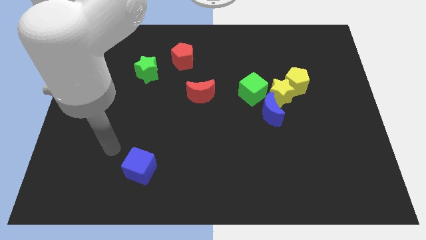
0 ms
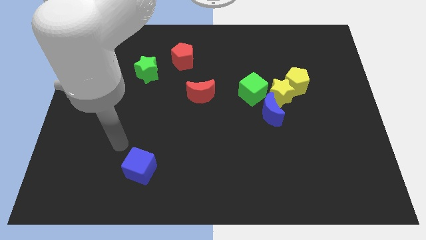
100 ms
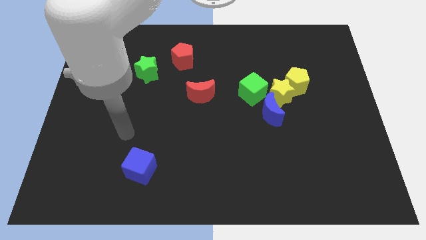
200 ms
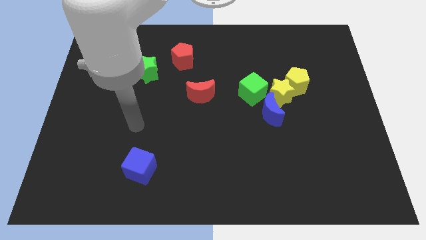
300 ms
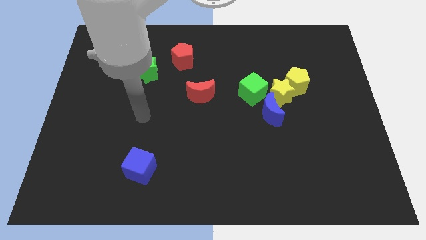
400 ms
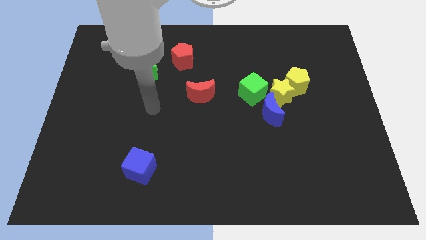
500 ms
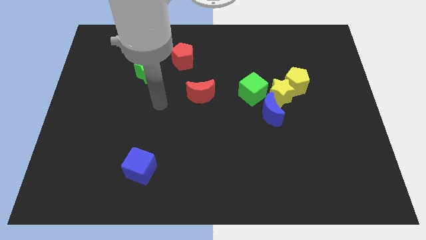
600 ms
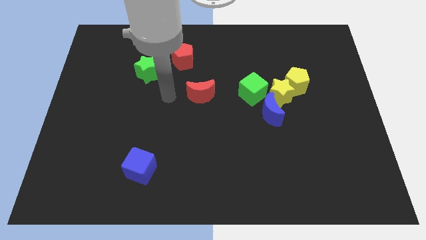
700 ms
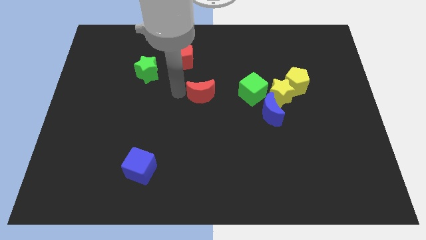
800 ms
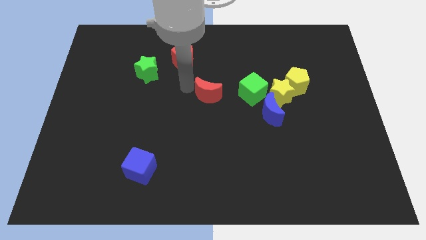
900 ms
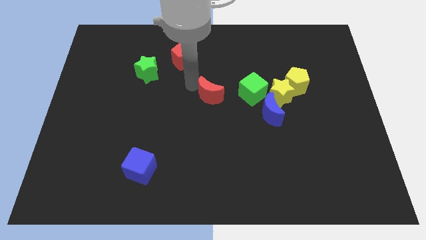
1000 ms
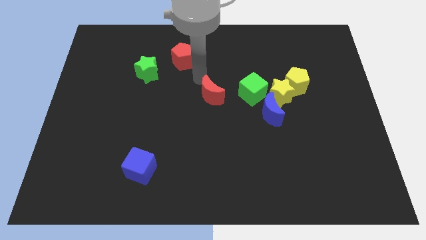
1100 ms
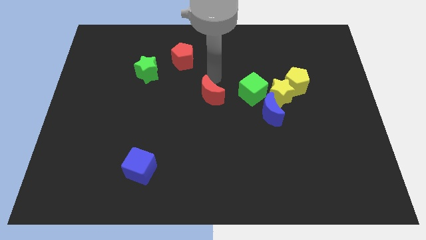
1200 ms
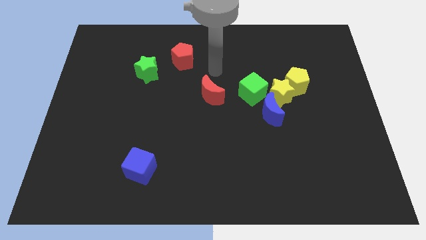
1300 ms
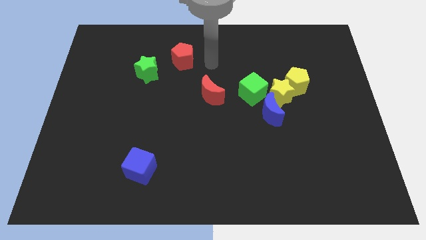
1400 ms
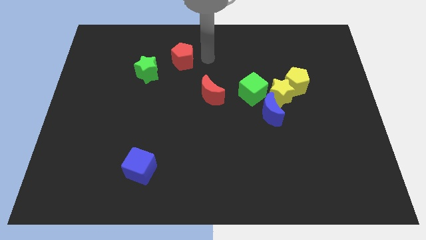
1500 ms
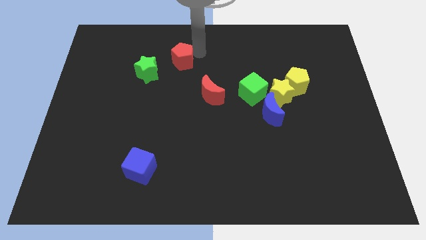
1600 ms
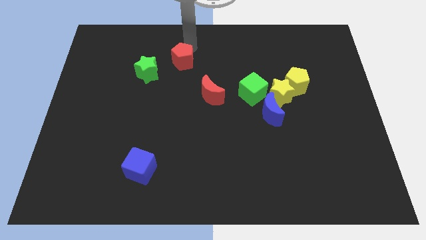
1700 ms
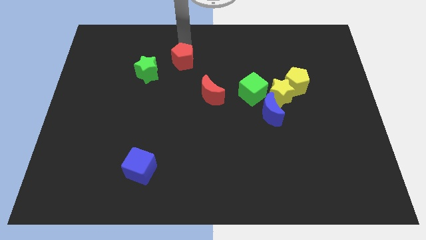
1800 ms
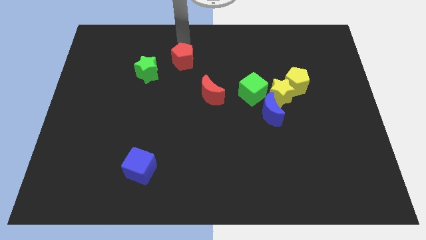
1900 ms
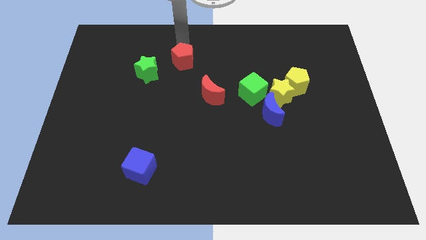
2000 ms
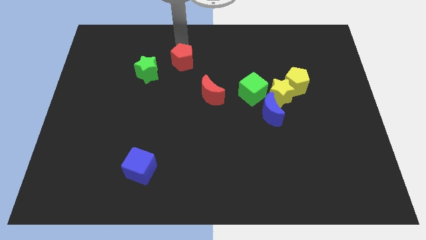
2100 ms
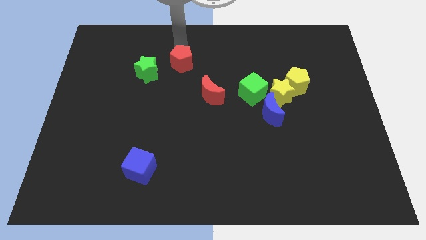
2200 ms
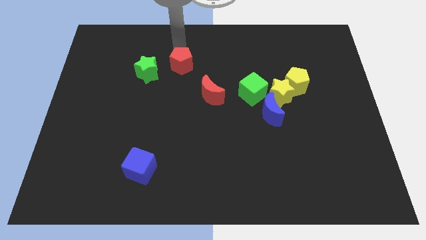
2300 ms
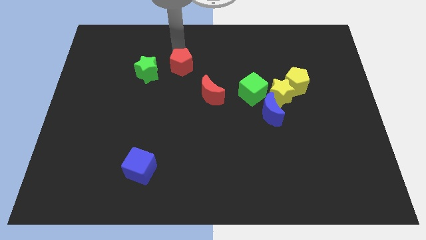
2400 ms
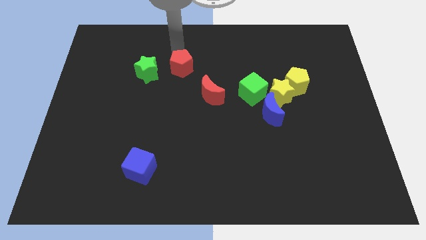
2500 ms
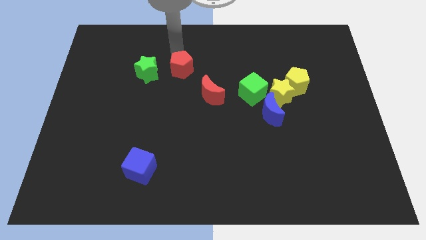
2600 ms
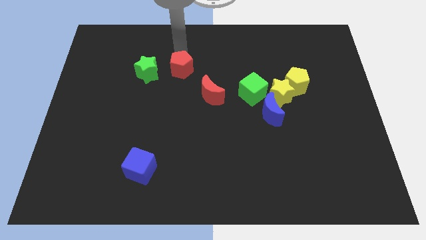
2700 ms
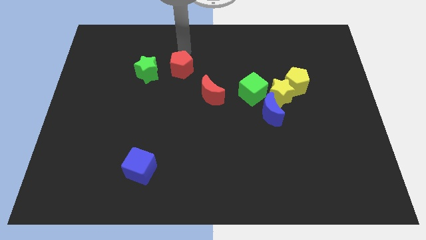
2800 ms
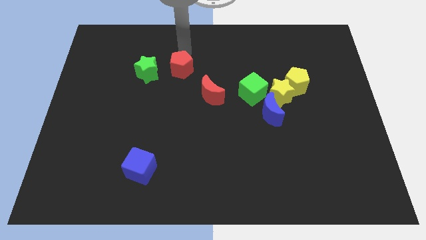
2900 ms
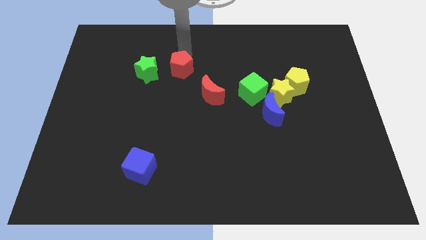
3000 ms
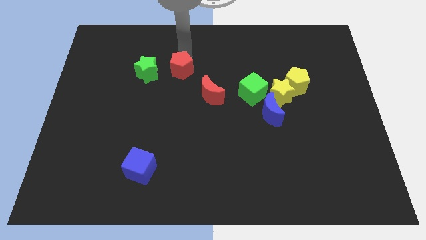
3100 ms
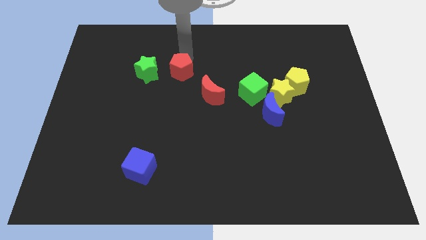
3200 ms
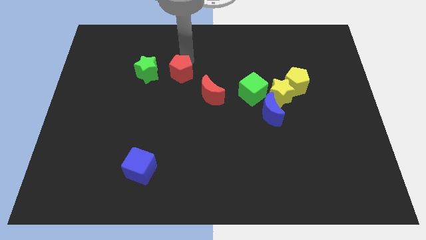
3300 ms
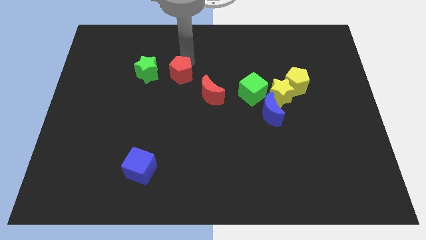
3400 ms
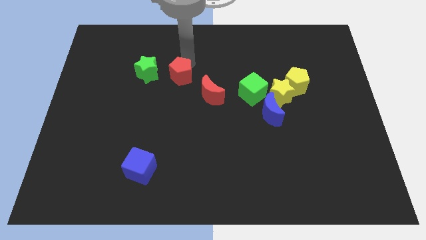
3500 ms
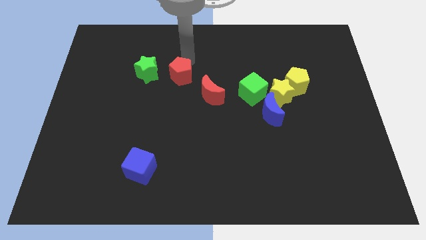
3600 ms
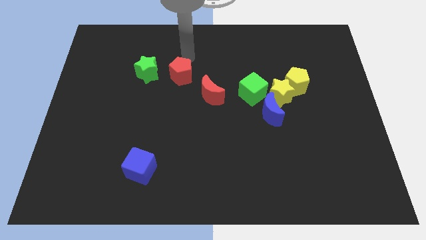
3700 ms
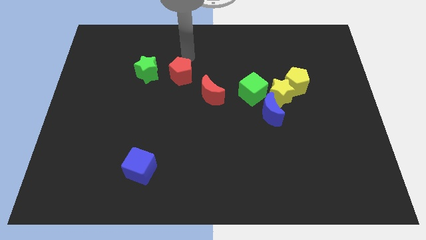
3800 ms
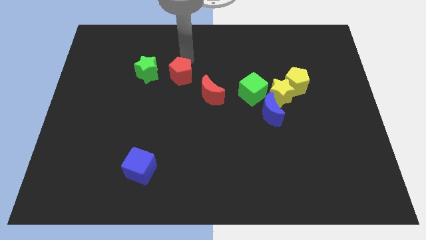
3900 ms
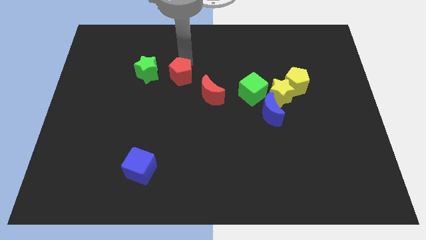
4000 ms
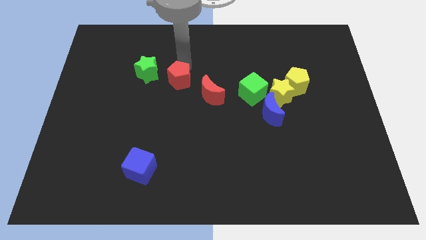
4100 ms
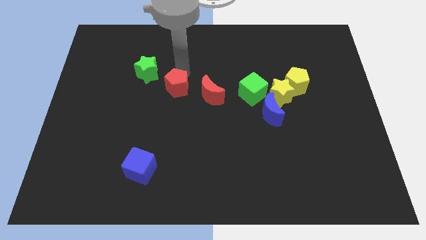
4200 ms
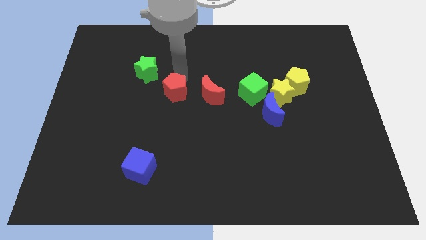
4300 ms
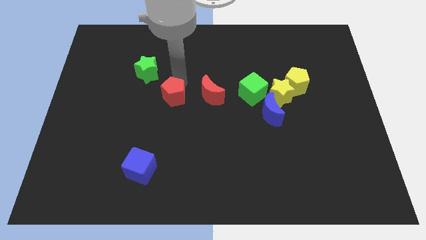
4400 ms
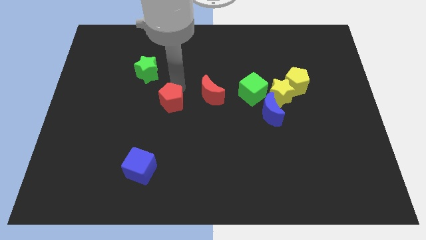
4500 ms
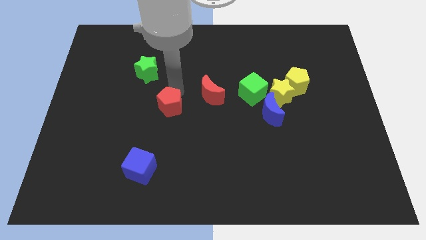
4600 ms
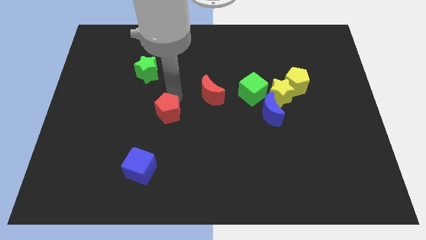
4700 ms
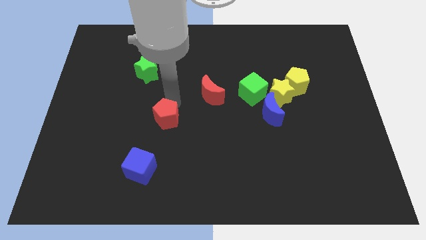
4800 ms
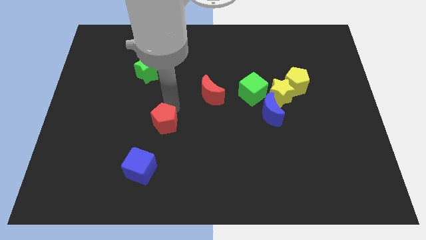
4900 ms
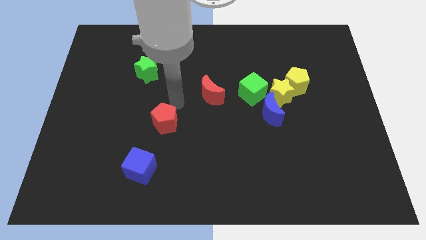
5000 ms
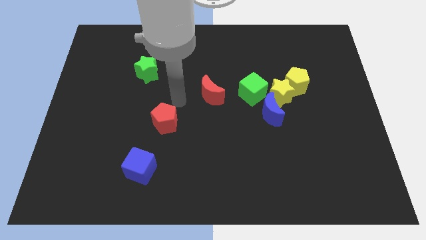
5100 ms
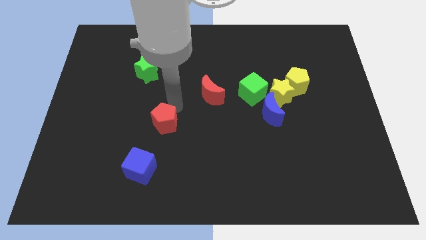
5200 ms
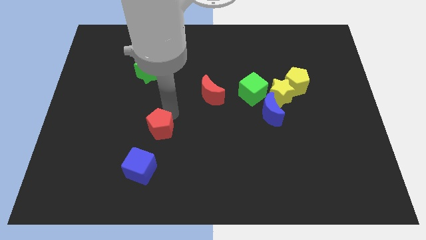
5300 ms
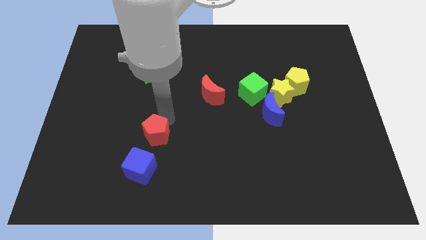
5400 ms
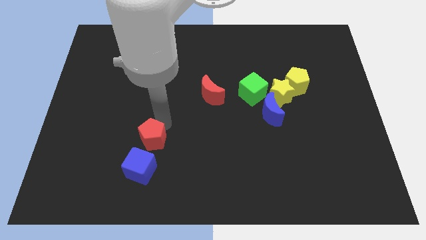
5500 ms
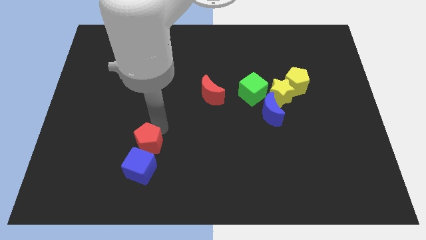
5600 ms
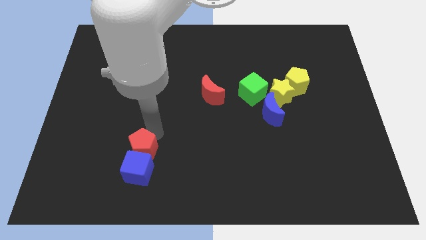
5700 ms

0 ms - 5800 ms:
slide the red pentagon towards the blue cube

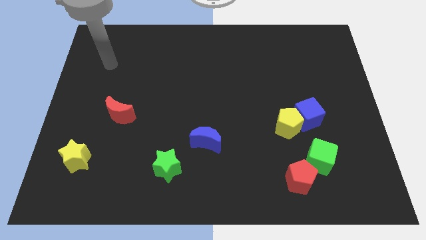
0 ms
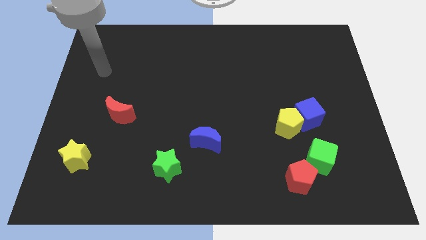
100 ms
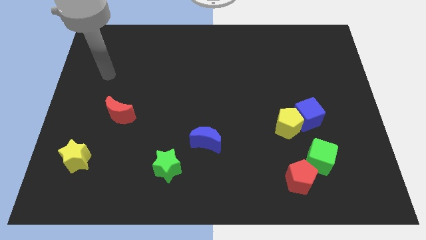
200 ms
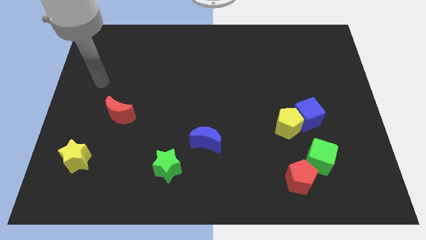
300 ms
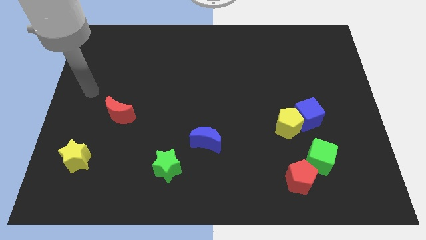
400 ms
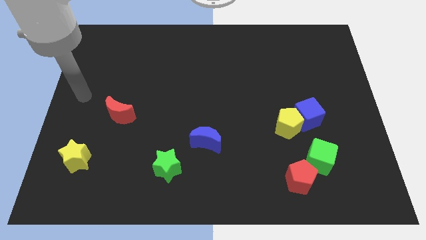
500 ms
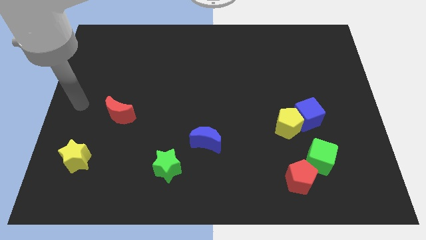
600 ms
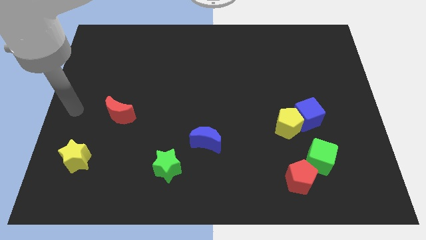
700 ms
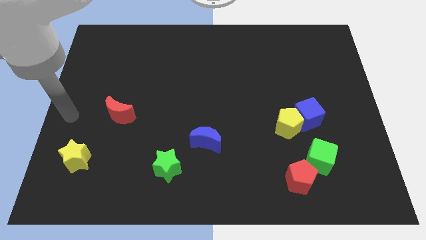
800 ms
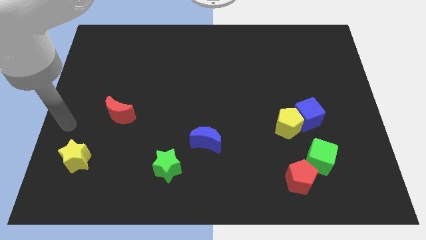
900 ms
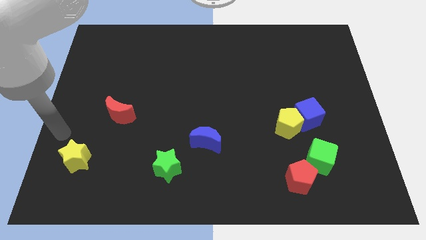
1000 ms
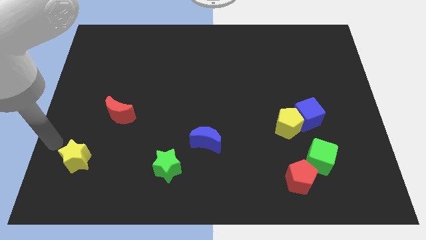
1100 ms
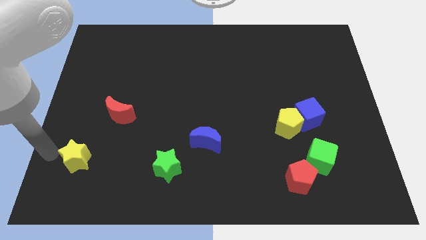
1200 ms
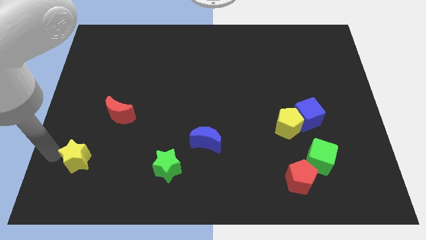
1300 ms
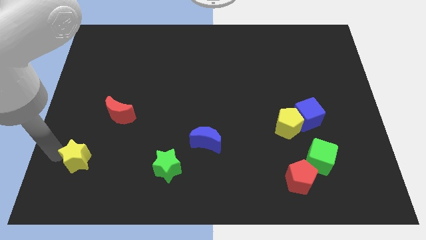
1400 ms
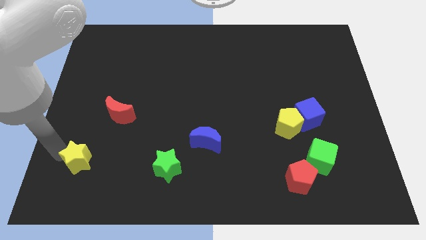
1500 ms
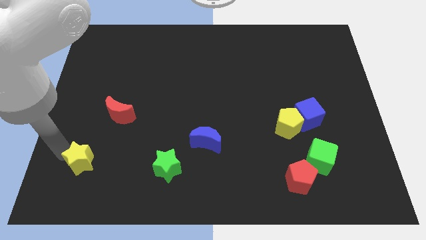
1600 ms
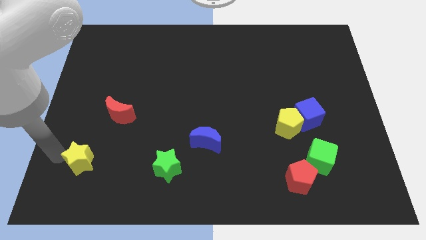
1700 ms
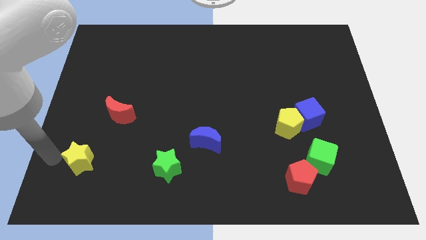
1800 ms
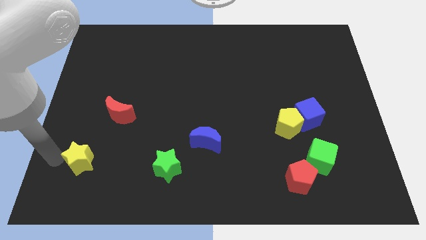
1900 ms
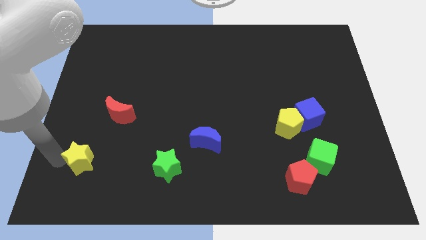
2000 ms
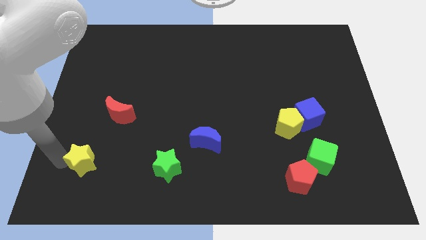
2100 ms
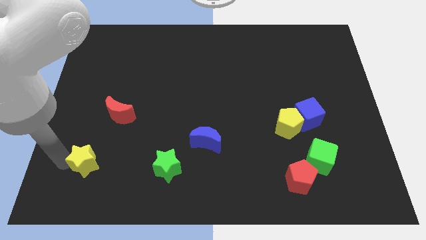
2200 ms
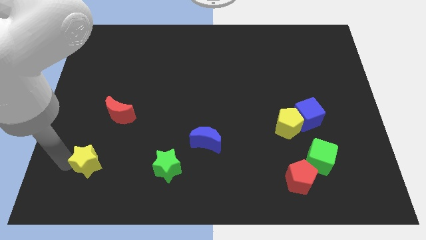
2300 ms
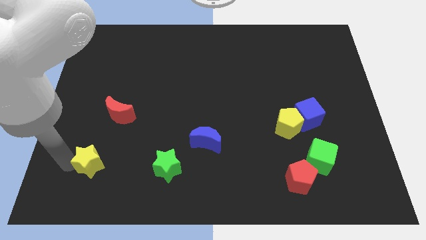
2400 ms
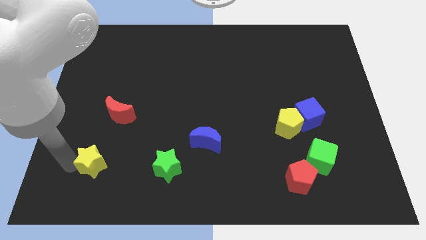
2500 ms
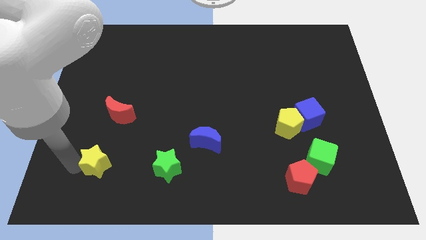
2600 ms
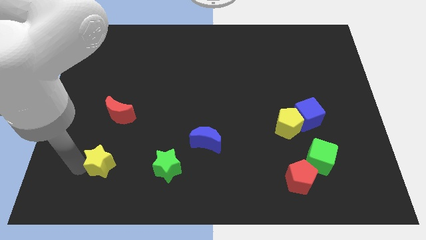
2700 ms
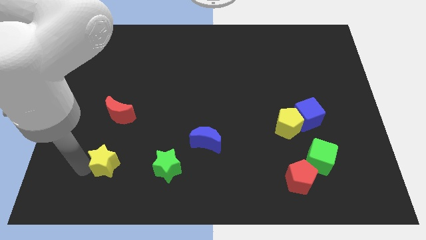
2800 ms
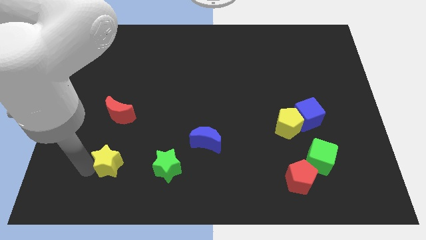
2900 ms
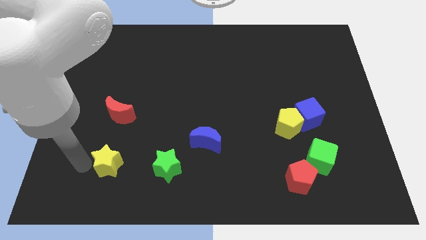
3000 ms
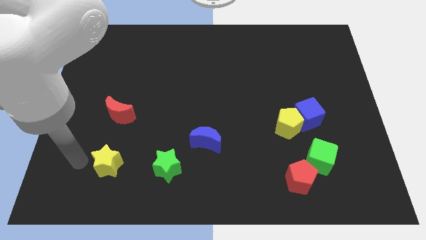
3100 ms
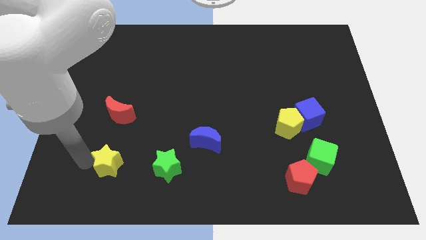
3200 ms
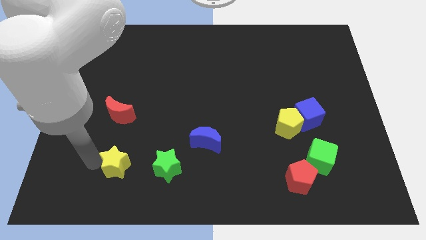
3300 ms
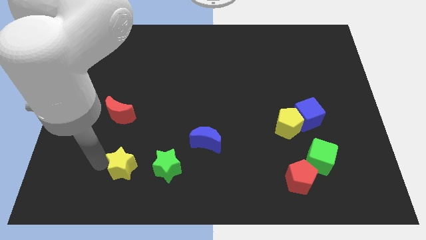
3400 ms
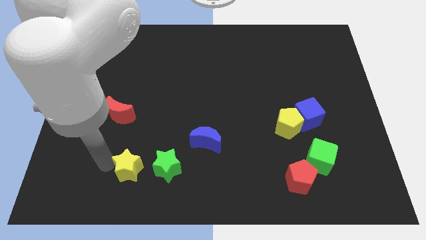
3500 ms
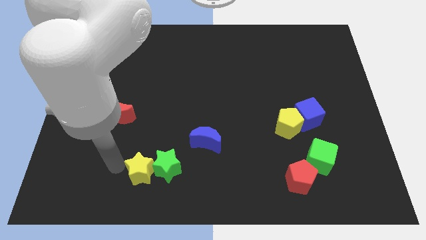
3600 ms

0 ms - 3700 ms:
move the yellow star next to the green star
